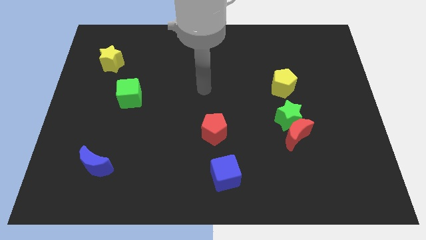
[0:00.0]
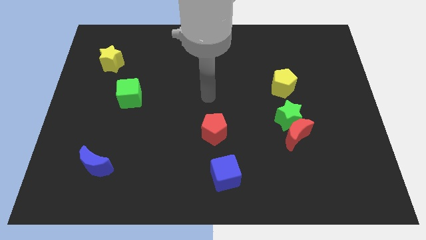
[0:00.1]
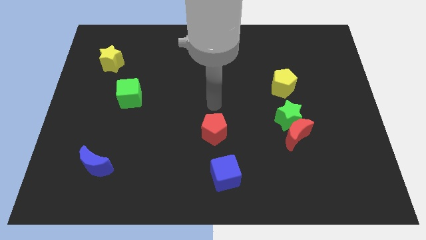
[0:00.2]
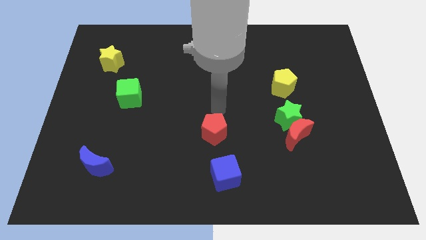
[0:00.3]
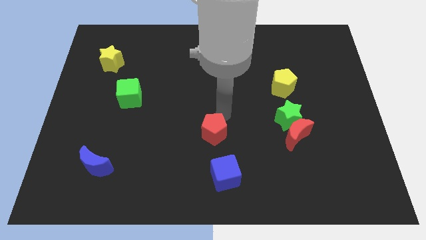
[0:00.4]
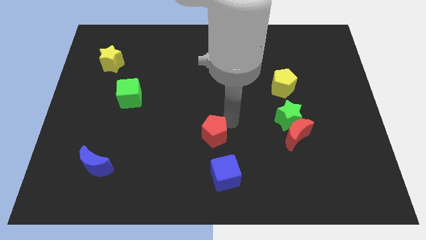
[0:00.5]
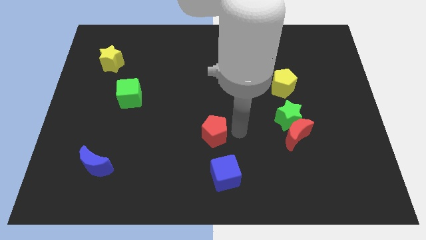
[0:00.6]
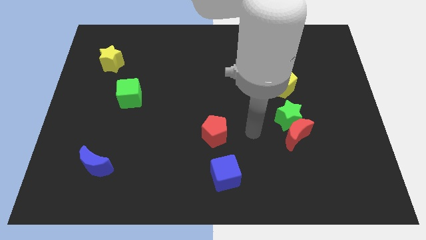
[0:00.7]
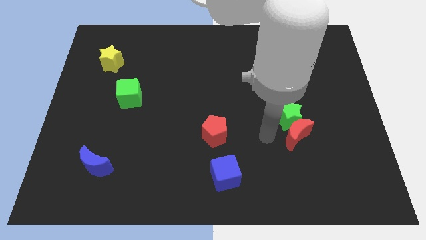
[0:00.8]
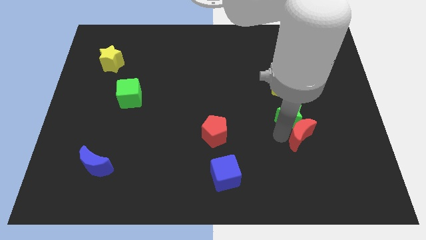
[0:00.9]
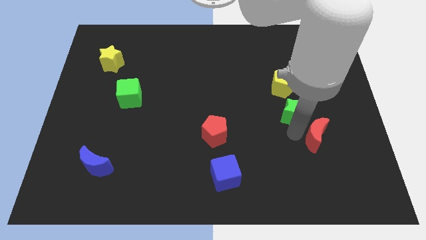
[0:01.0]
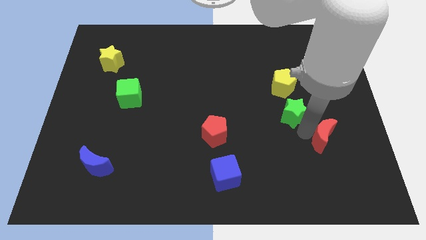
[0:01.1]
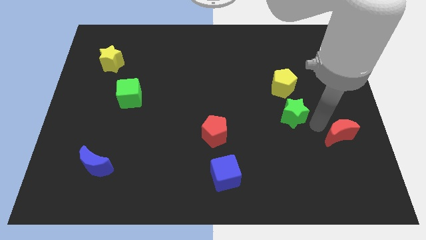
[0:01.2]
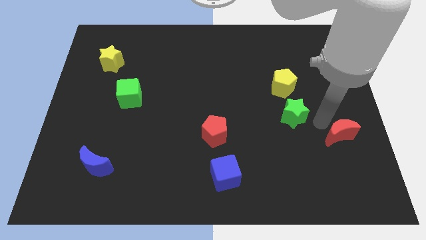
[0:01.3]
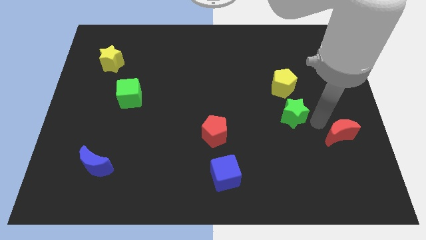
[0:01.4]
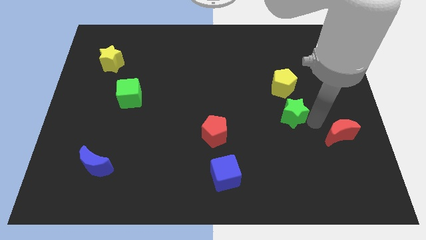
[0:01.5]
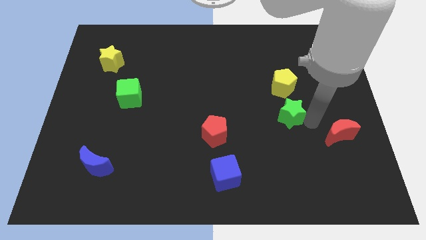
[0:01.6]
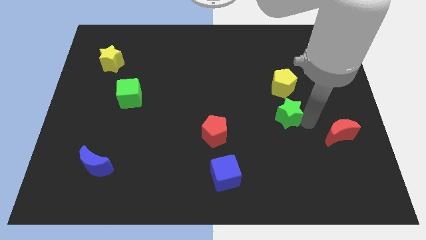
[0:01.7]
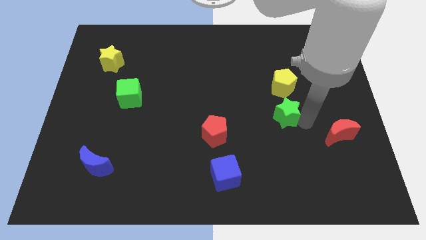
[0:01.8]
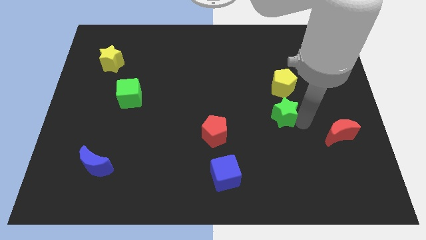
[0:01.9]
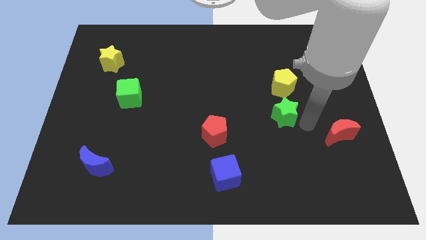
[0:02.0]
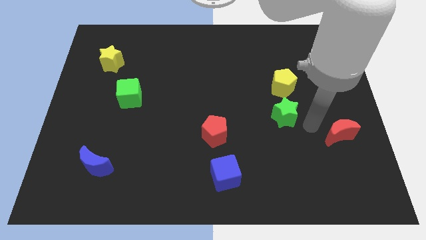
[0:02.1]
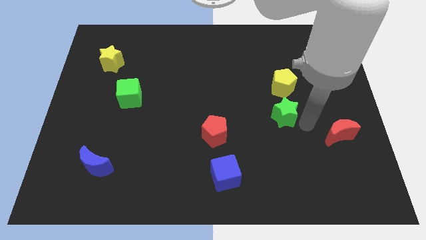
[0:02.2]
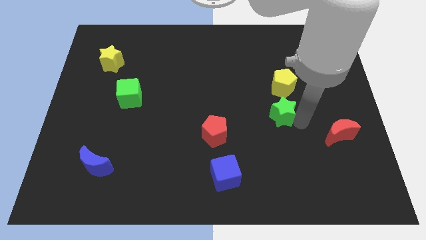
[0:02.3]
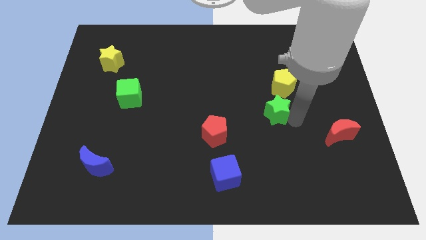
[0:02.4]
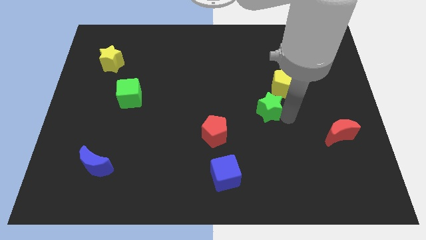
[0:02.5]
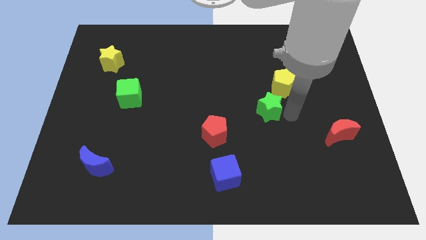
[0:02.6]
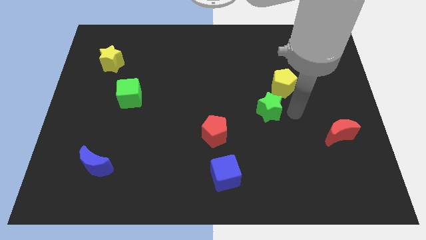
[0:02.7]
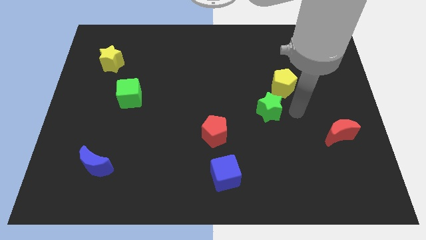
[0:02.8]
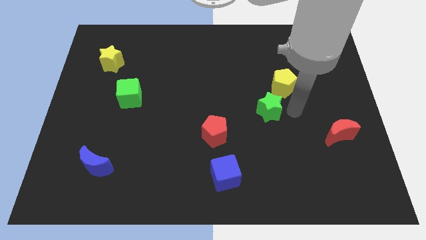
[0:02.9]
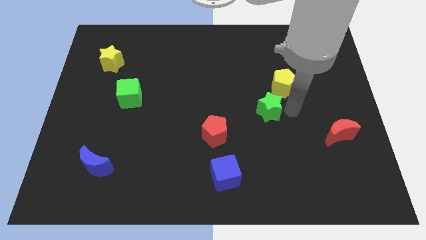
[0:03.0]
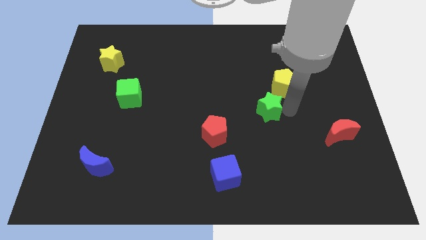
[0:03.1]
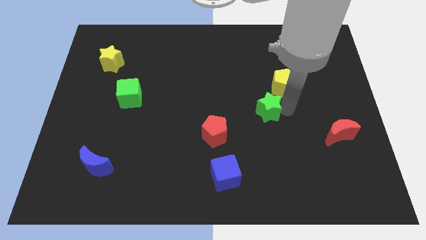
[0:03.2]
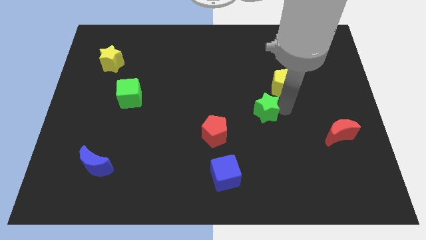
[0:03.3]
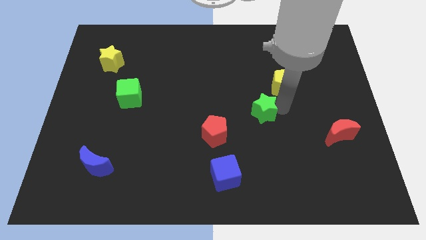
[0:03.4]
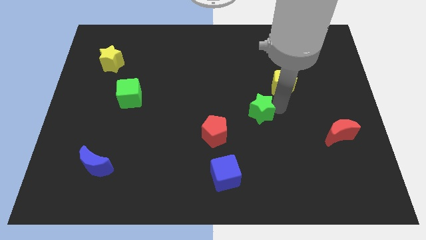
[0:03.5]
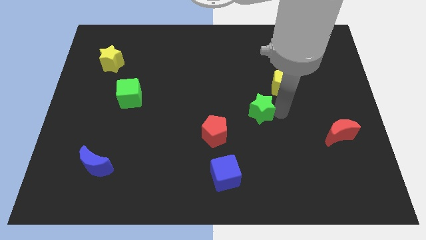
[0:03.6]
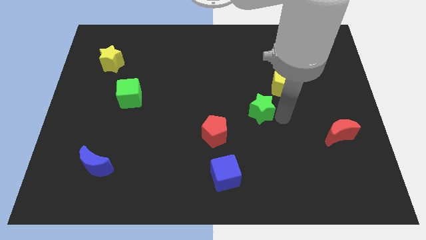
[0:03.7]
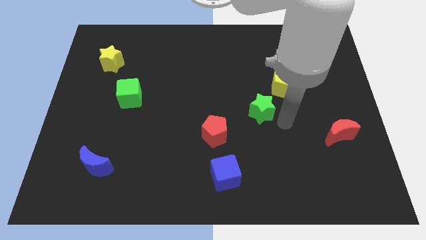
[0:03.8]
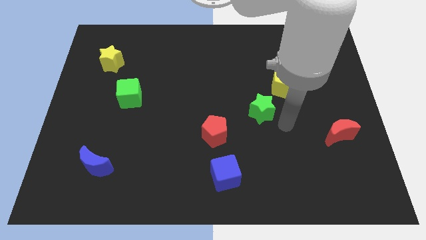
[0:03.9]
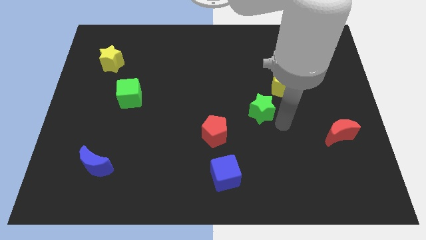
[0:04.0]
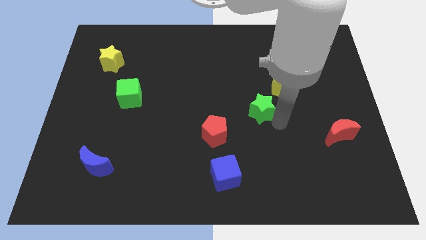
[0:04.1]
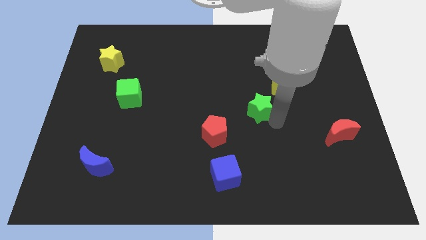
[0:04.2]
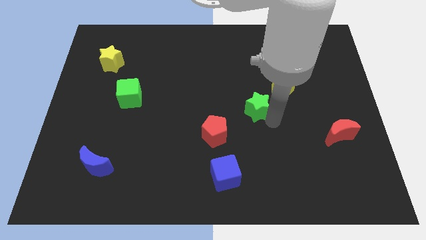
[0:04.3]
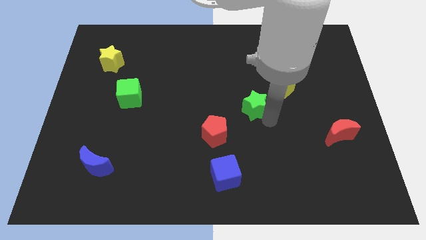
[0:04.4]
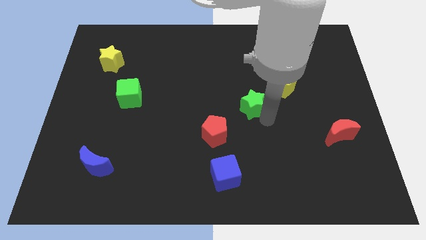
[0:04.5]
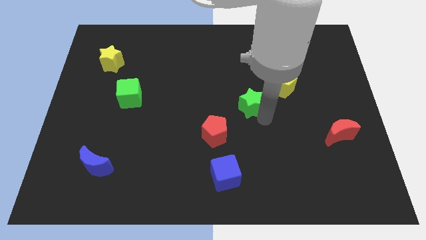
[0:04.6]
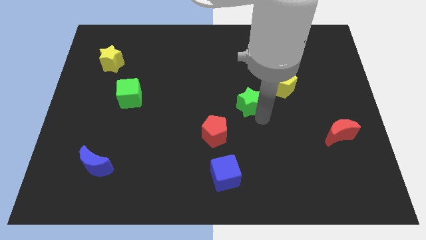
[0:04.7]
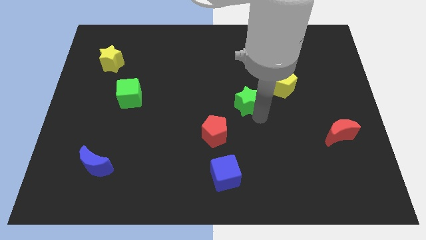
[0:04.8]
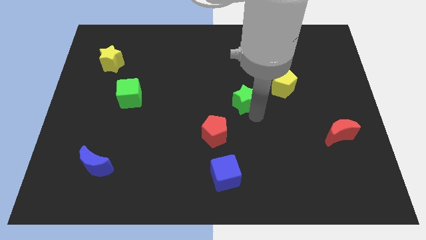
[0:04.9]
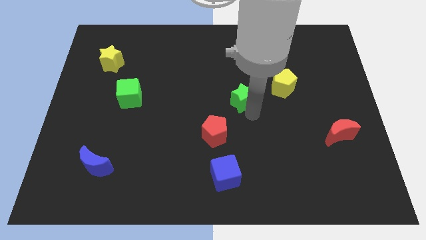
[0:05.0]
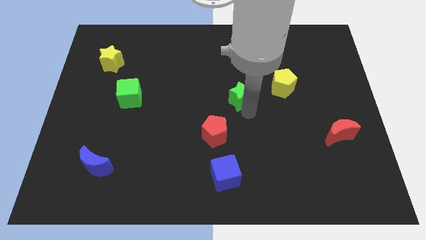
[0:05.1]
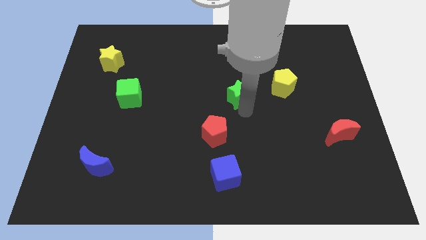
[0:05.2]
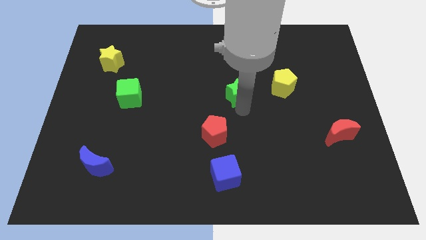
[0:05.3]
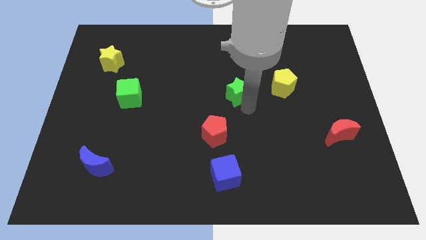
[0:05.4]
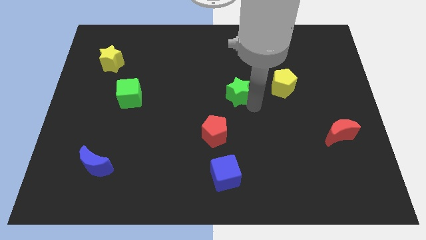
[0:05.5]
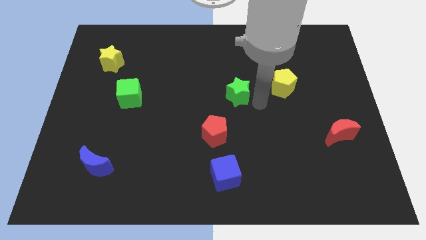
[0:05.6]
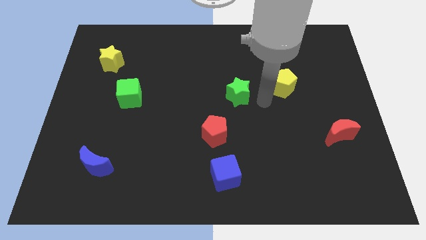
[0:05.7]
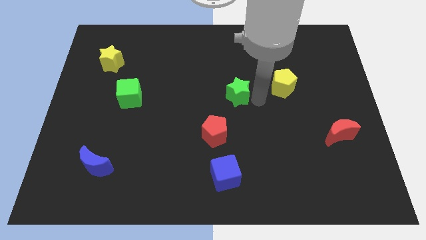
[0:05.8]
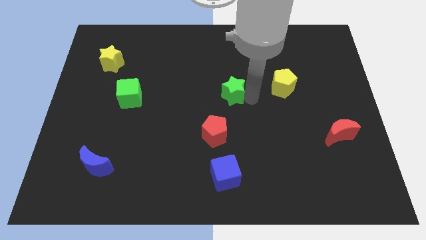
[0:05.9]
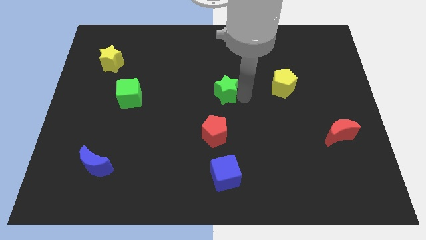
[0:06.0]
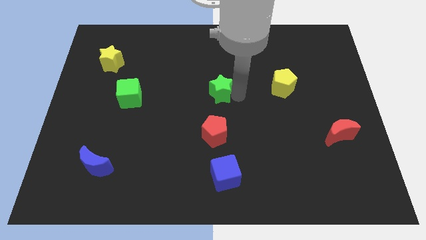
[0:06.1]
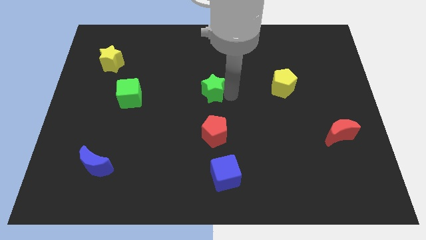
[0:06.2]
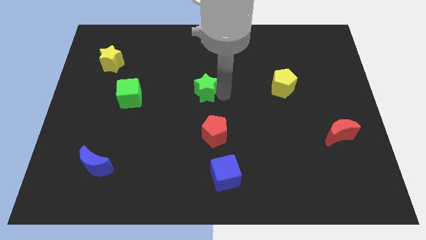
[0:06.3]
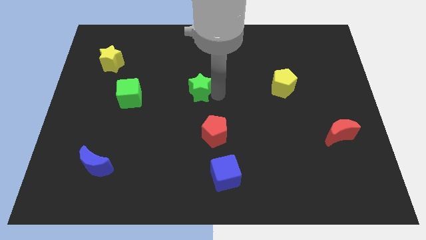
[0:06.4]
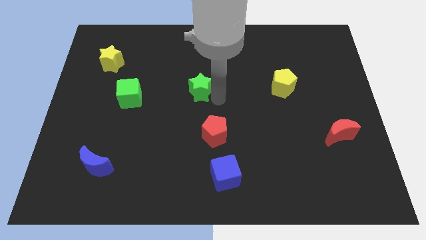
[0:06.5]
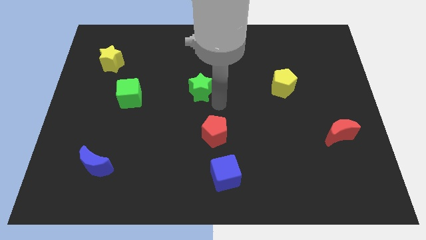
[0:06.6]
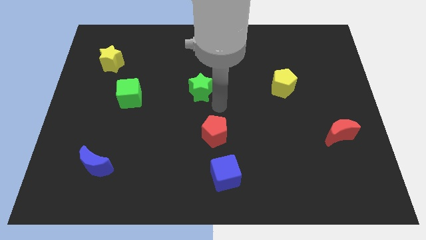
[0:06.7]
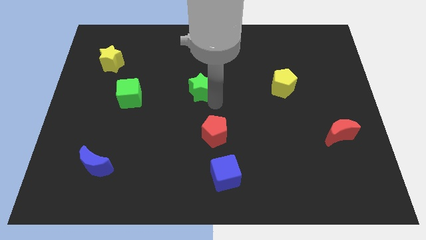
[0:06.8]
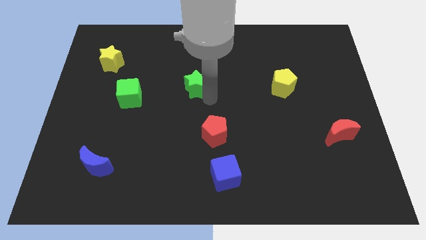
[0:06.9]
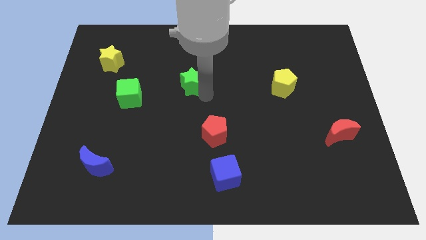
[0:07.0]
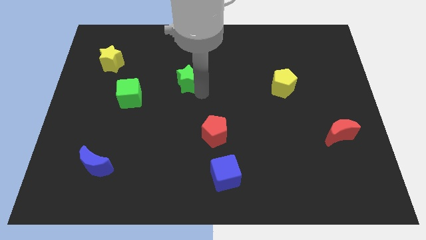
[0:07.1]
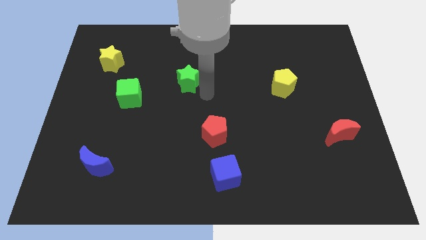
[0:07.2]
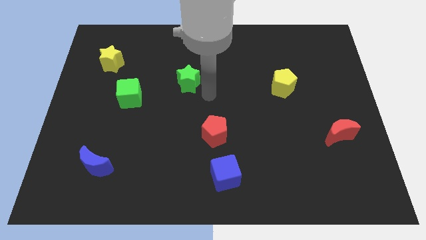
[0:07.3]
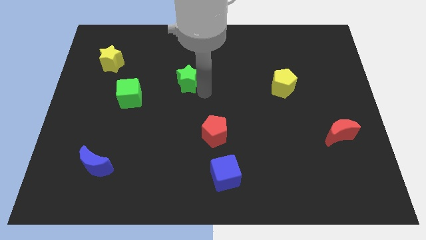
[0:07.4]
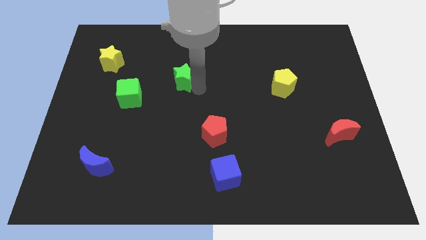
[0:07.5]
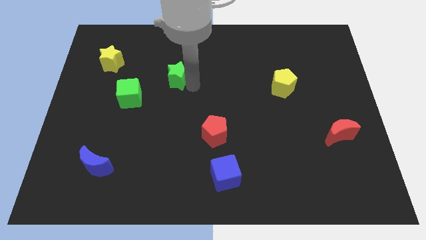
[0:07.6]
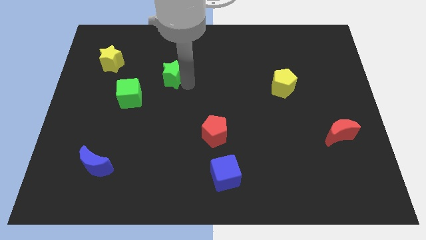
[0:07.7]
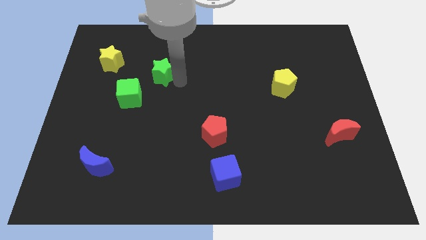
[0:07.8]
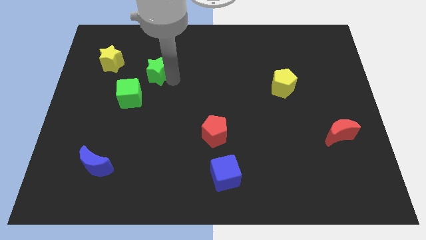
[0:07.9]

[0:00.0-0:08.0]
push the green star to the right side of the yellow star
